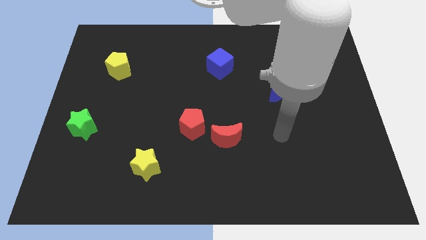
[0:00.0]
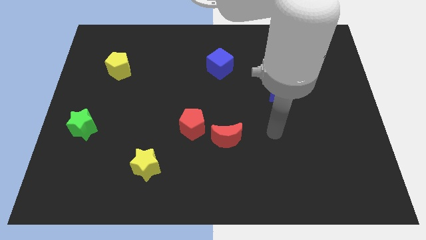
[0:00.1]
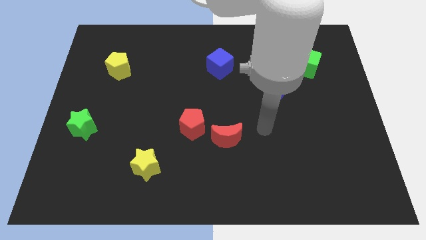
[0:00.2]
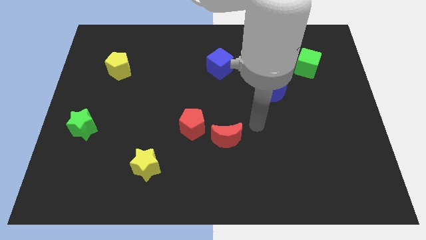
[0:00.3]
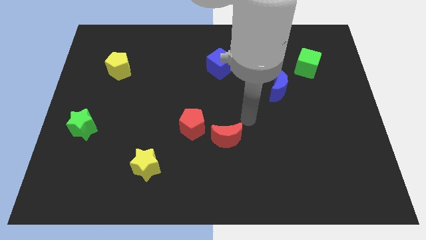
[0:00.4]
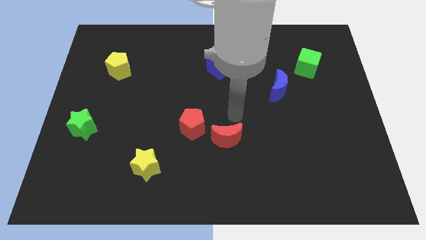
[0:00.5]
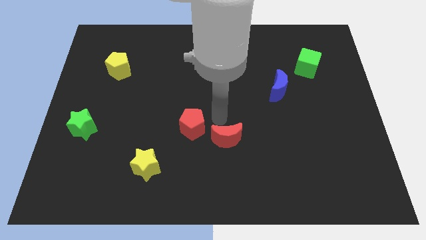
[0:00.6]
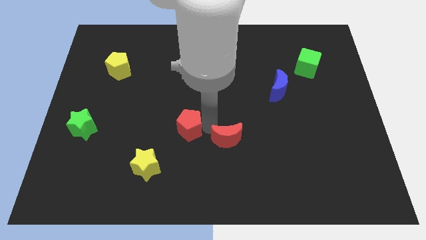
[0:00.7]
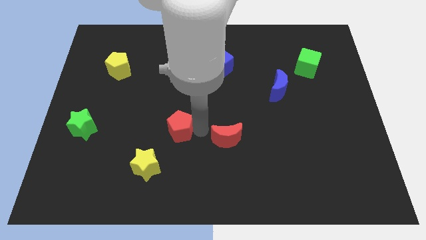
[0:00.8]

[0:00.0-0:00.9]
separate the red moon from the red pentagon

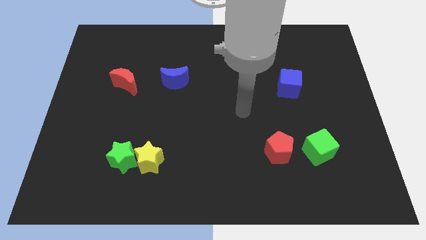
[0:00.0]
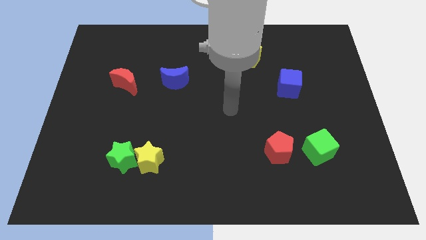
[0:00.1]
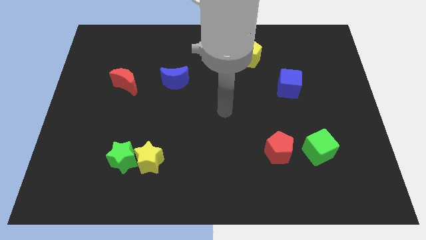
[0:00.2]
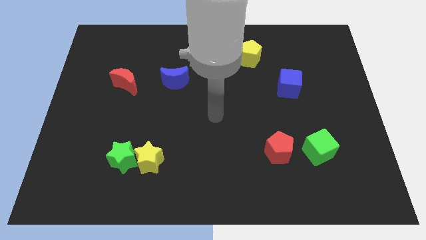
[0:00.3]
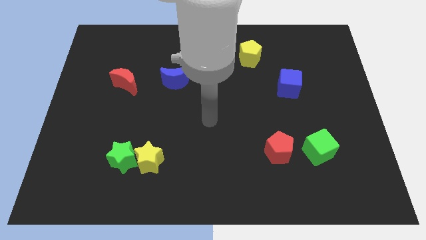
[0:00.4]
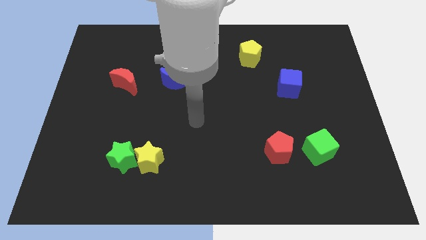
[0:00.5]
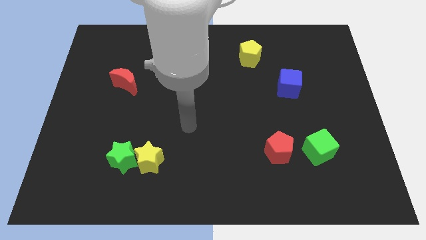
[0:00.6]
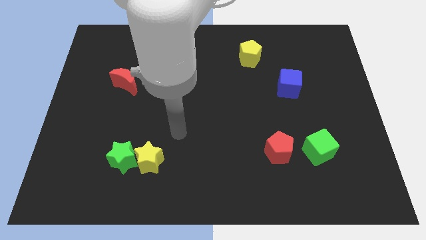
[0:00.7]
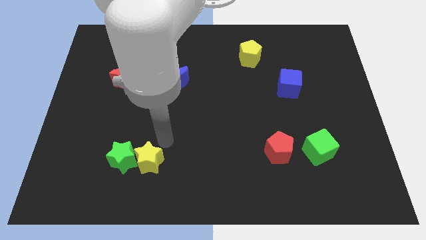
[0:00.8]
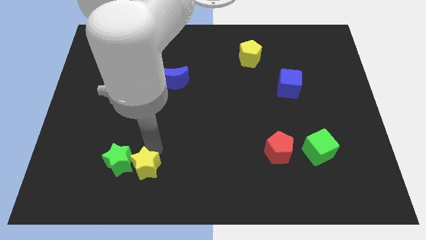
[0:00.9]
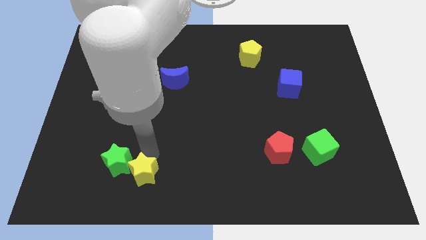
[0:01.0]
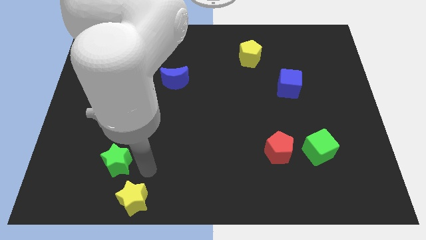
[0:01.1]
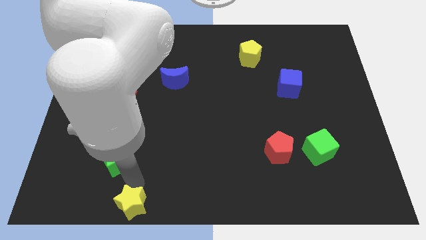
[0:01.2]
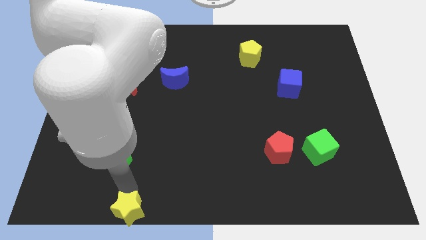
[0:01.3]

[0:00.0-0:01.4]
separate the green star from the yellow star

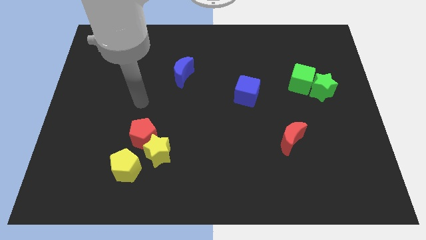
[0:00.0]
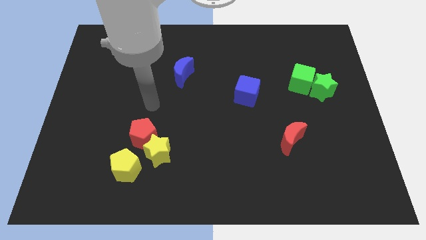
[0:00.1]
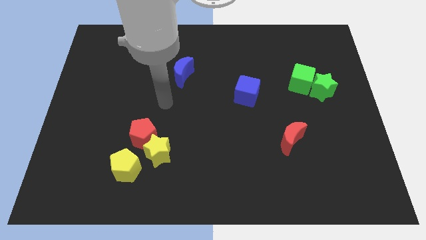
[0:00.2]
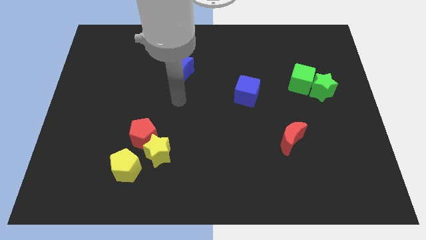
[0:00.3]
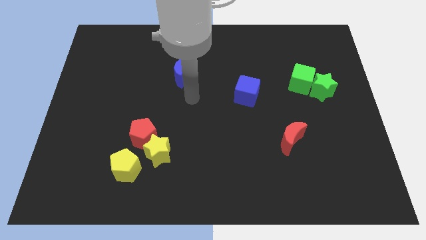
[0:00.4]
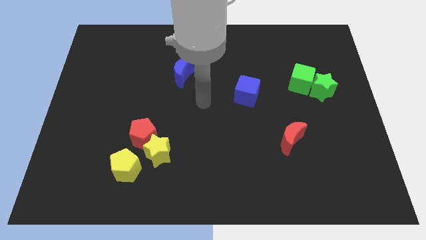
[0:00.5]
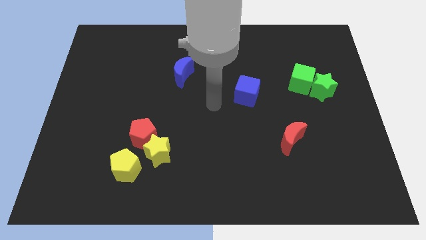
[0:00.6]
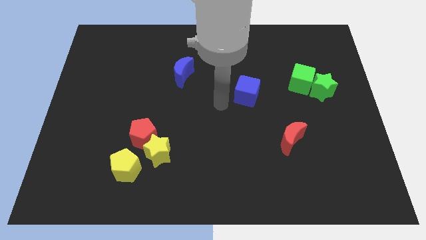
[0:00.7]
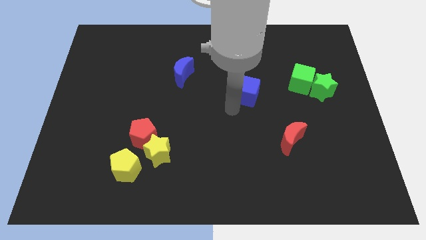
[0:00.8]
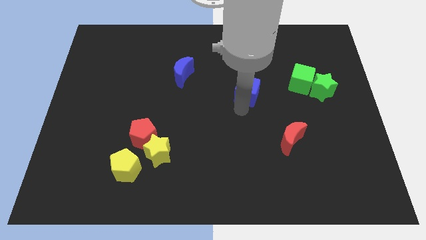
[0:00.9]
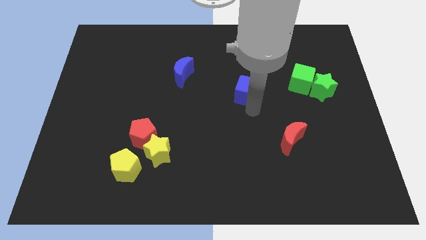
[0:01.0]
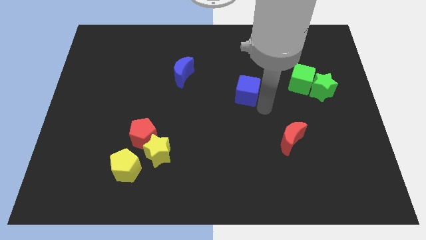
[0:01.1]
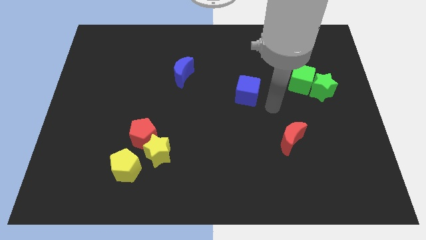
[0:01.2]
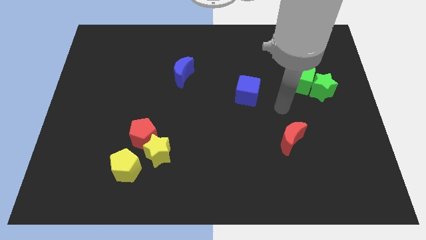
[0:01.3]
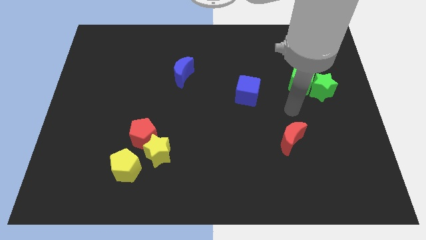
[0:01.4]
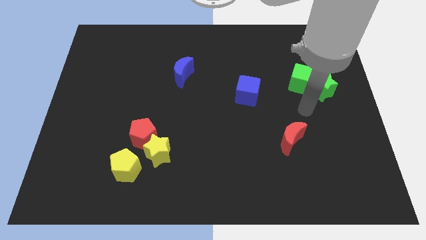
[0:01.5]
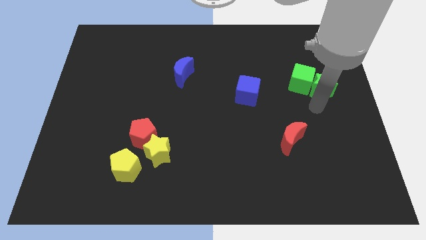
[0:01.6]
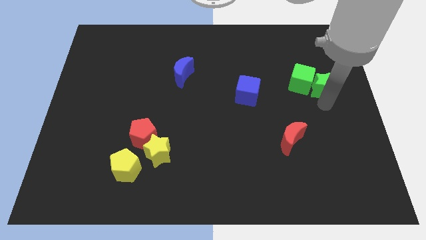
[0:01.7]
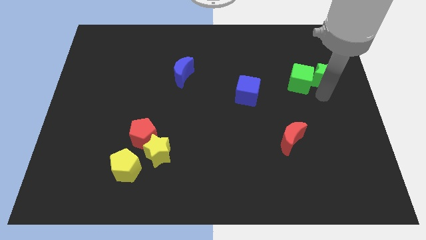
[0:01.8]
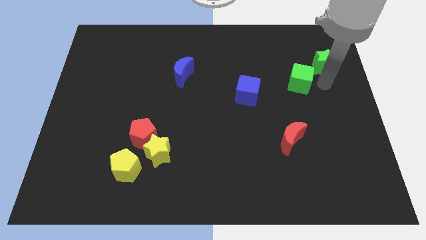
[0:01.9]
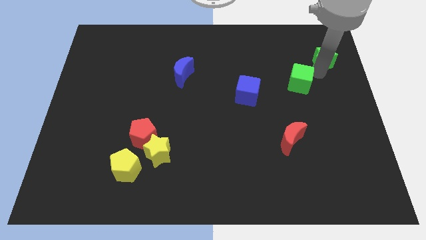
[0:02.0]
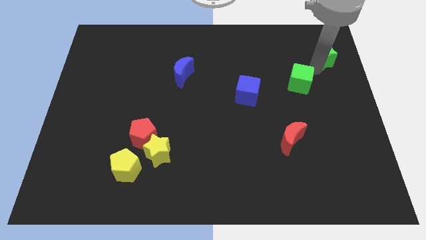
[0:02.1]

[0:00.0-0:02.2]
move the green cube away from the green star

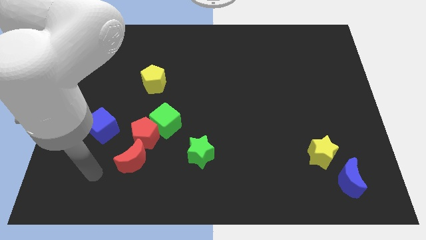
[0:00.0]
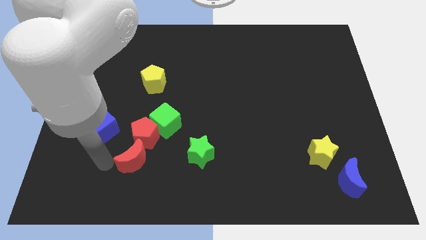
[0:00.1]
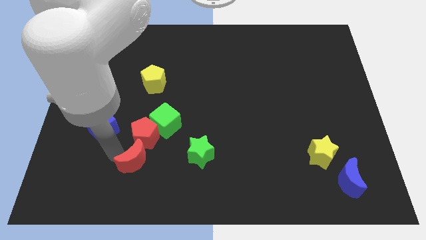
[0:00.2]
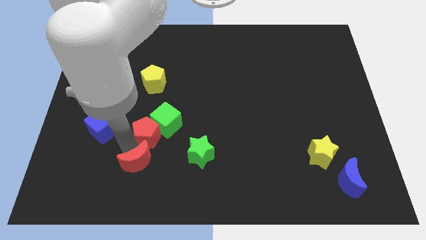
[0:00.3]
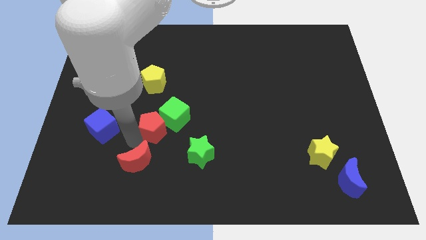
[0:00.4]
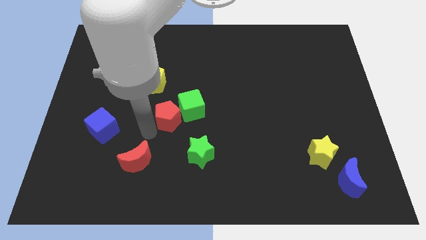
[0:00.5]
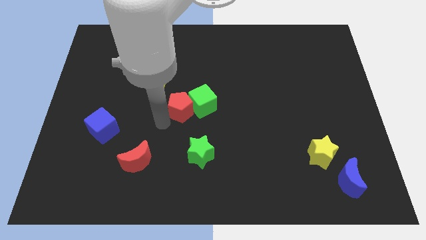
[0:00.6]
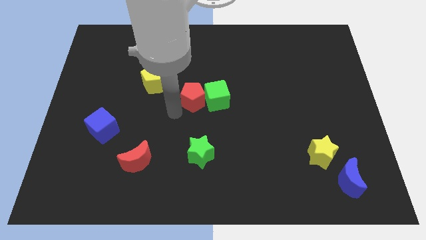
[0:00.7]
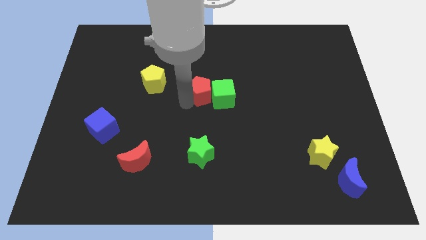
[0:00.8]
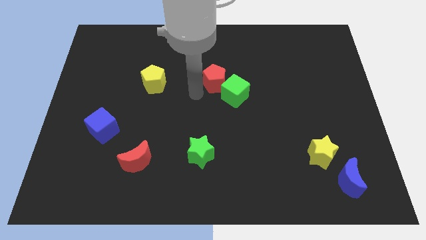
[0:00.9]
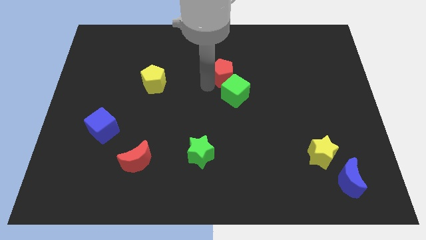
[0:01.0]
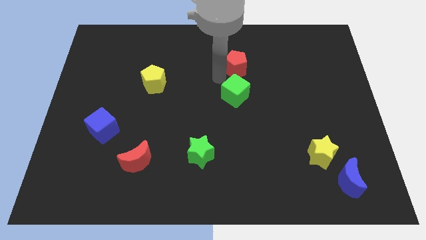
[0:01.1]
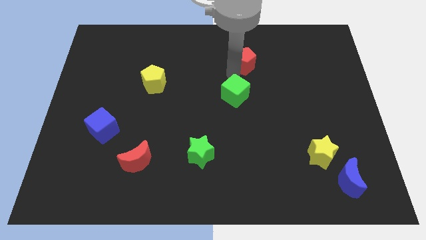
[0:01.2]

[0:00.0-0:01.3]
pull the green cube apart from the red pentagon

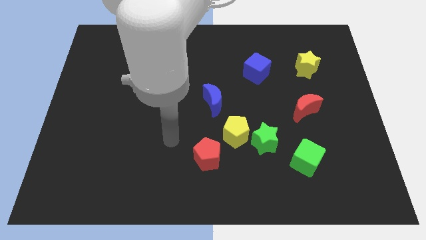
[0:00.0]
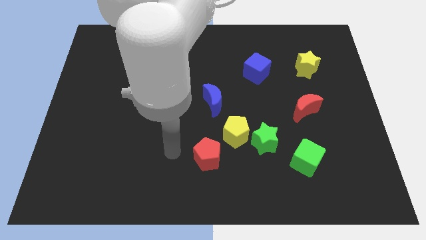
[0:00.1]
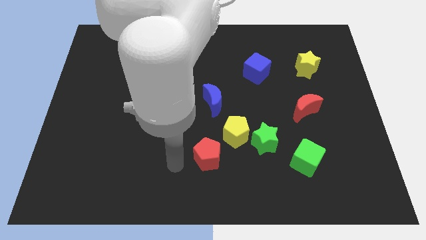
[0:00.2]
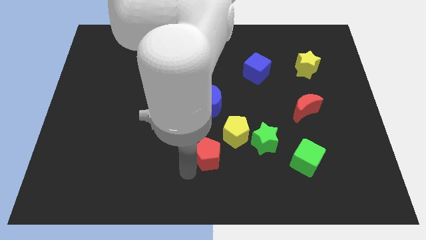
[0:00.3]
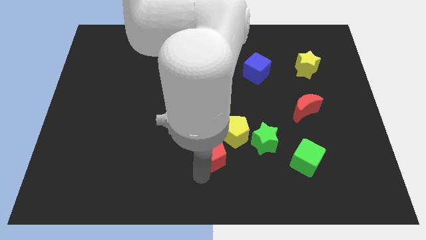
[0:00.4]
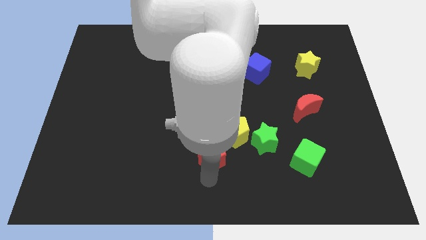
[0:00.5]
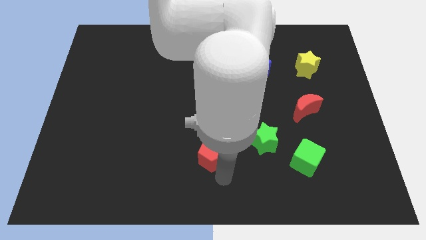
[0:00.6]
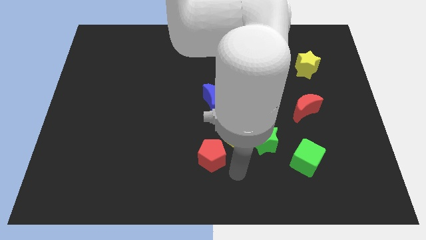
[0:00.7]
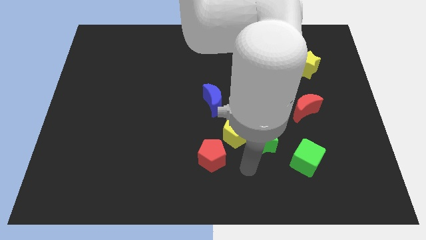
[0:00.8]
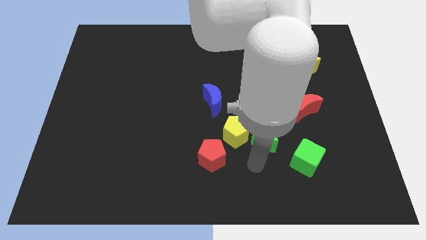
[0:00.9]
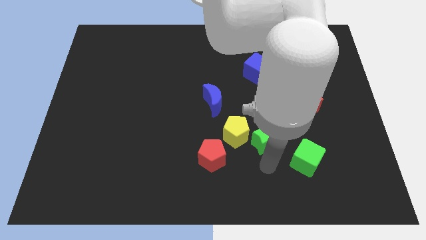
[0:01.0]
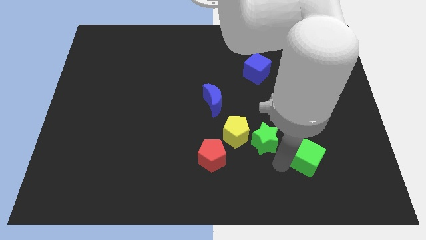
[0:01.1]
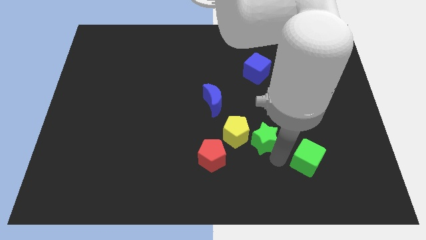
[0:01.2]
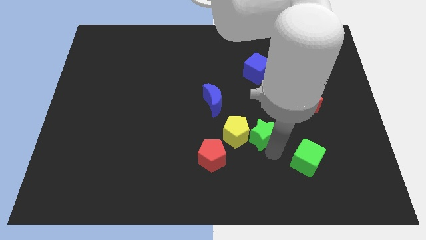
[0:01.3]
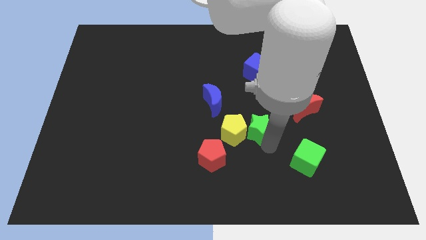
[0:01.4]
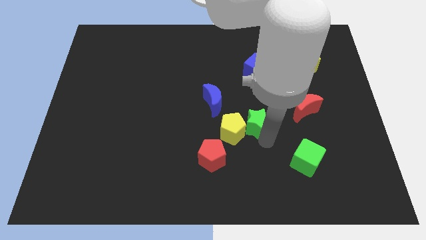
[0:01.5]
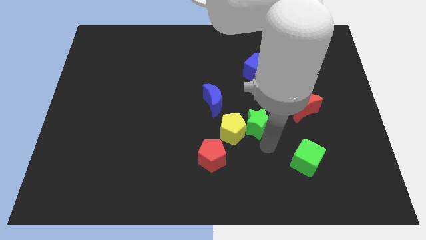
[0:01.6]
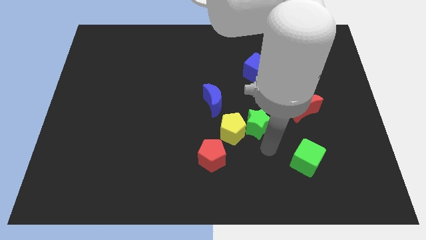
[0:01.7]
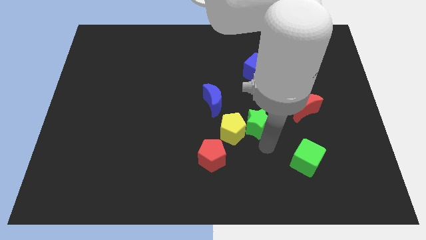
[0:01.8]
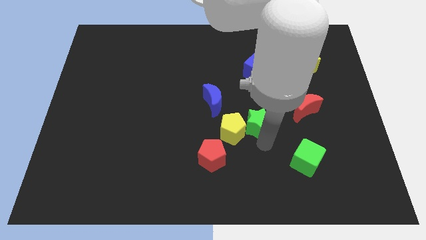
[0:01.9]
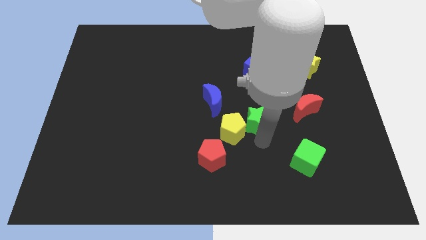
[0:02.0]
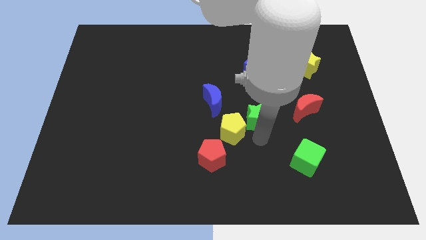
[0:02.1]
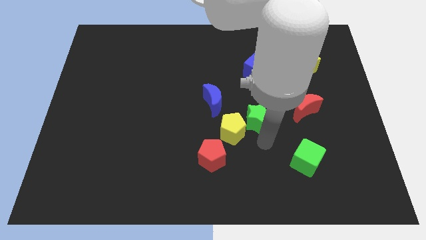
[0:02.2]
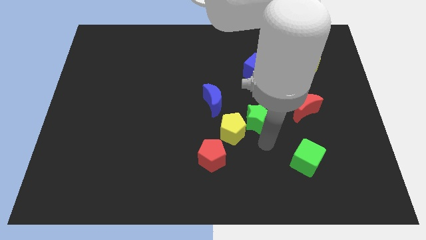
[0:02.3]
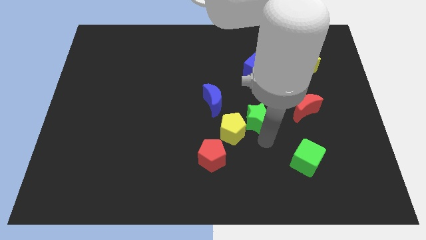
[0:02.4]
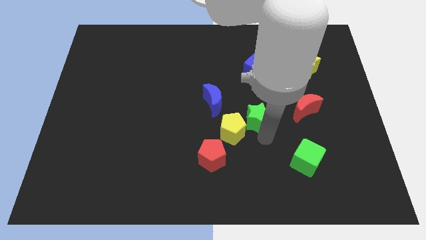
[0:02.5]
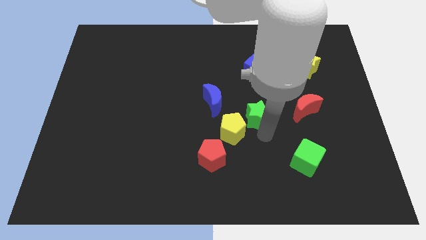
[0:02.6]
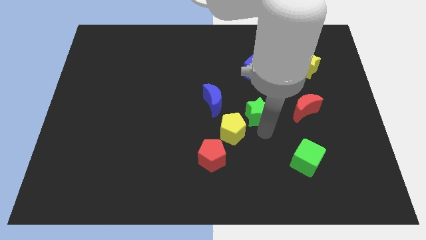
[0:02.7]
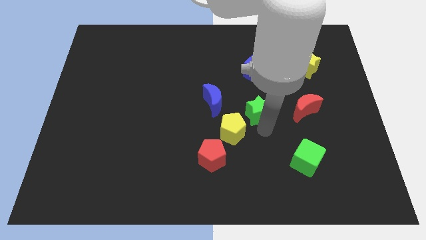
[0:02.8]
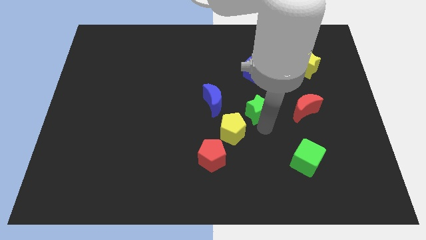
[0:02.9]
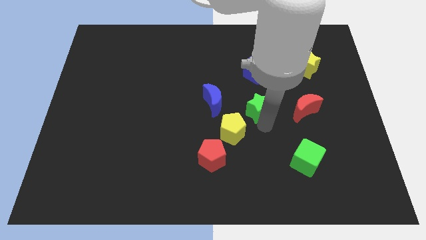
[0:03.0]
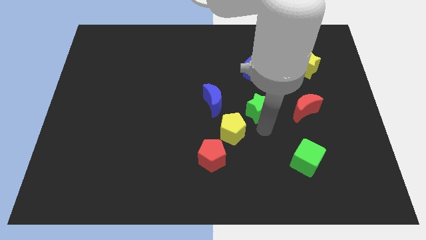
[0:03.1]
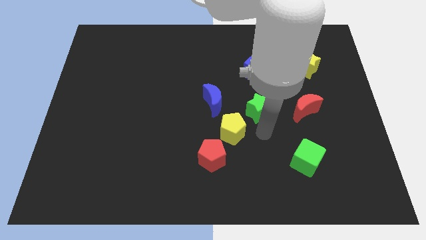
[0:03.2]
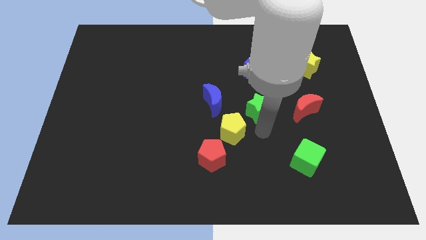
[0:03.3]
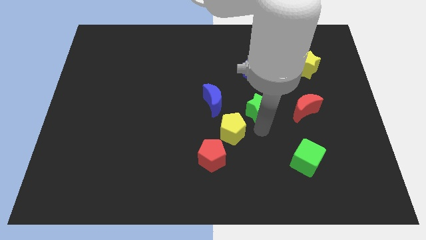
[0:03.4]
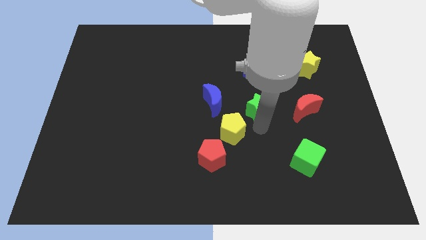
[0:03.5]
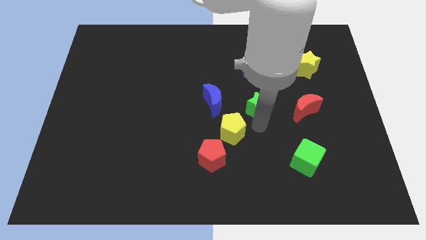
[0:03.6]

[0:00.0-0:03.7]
pull the green star apart from the yellow pentagon and green cube
